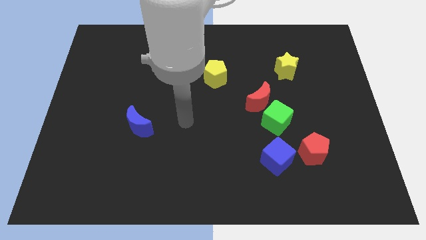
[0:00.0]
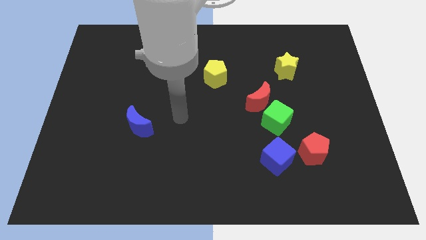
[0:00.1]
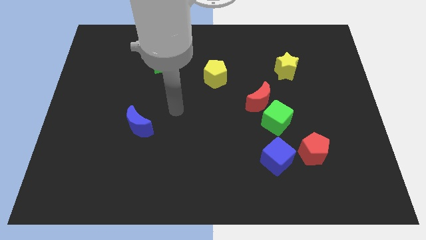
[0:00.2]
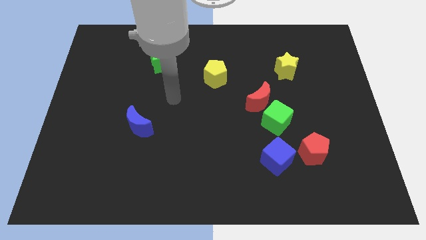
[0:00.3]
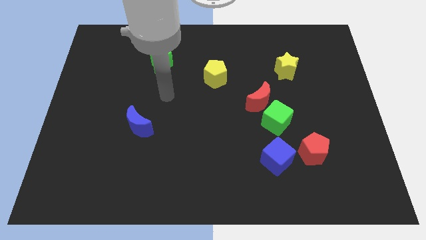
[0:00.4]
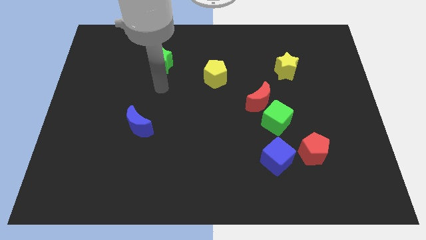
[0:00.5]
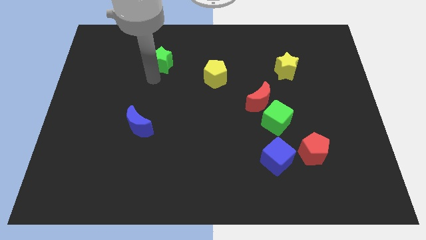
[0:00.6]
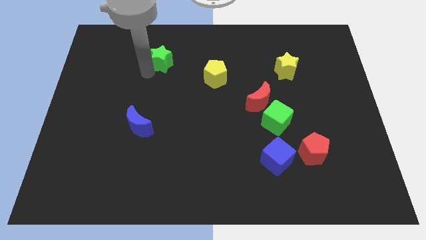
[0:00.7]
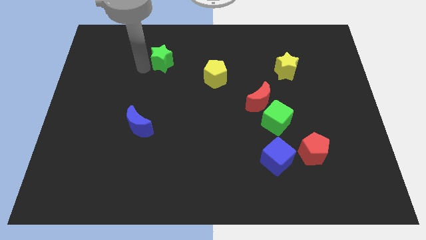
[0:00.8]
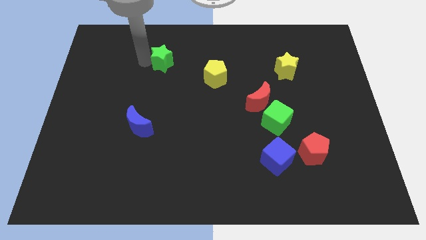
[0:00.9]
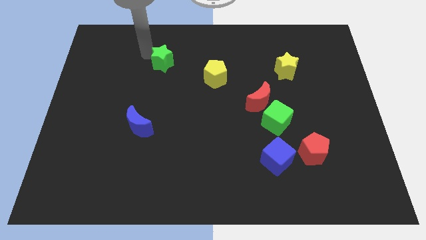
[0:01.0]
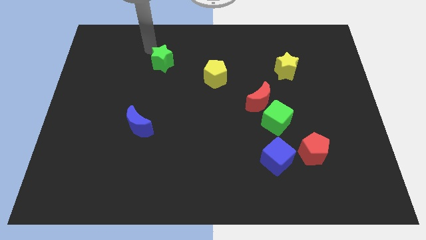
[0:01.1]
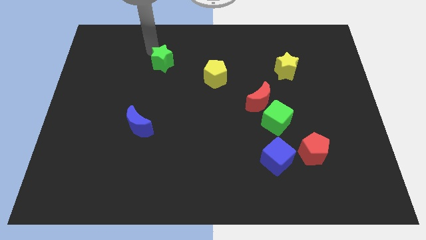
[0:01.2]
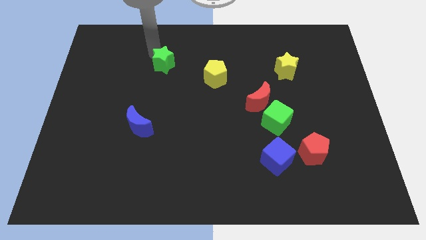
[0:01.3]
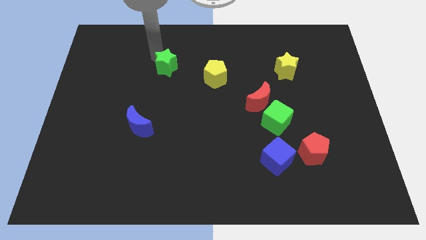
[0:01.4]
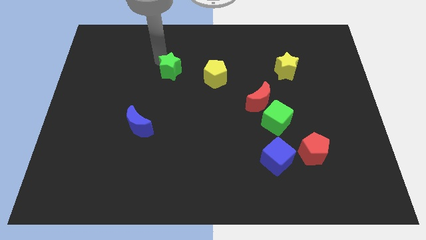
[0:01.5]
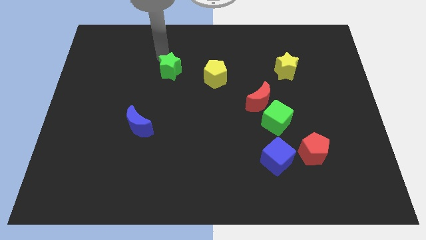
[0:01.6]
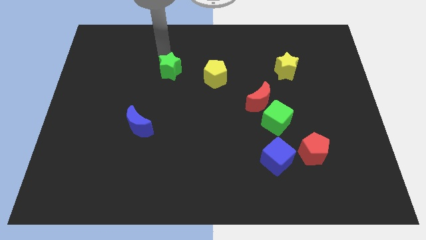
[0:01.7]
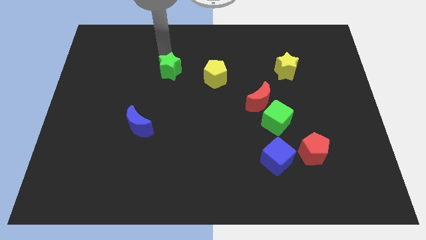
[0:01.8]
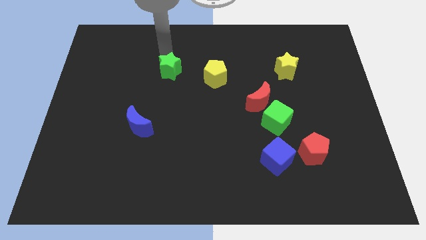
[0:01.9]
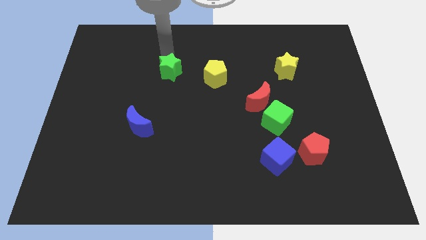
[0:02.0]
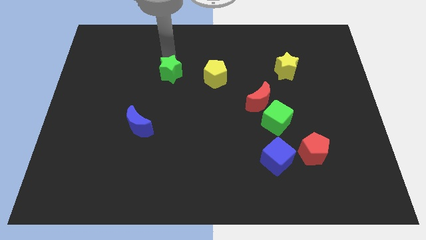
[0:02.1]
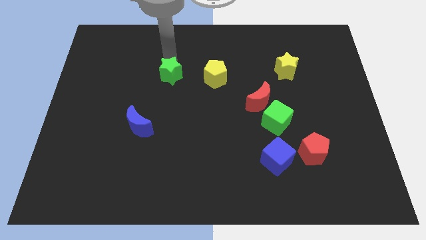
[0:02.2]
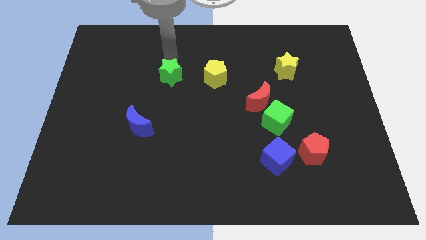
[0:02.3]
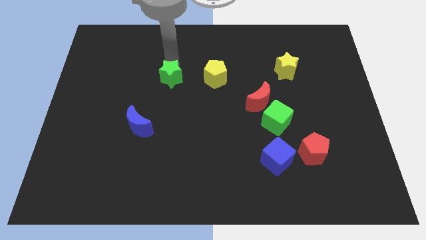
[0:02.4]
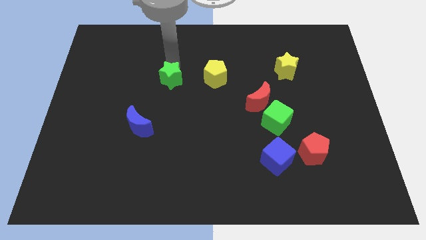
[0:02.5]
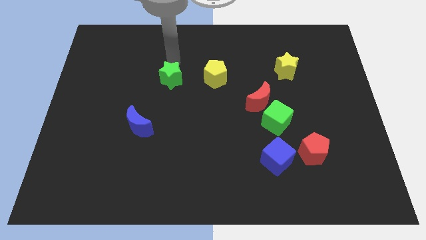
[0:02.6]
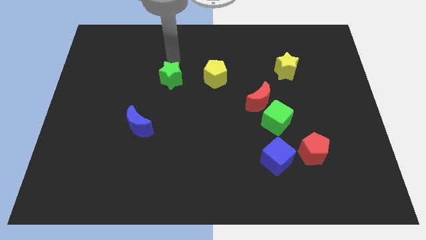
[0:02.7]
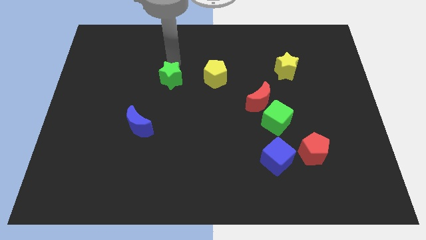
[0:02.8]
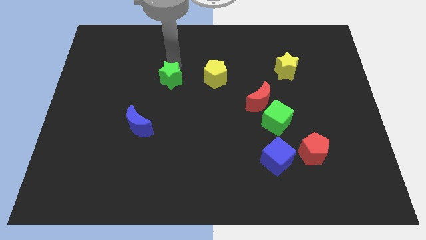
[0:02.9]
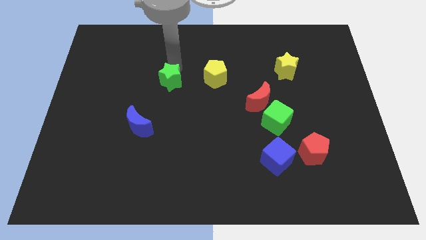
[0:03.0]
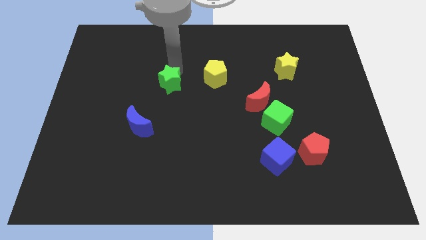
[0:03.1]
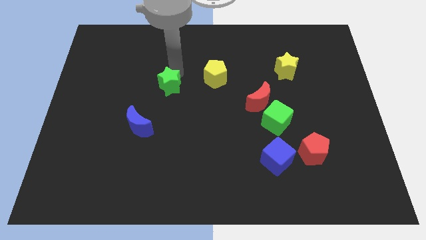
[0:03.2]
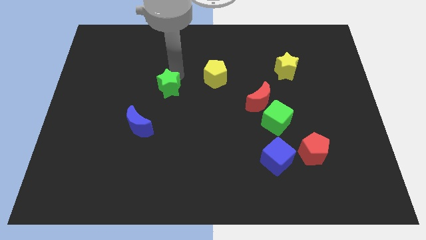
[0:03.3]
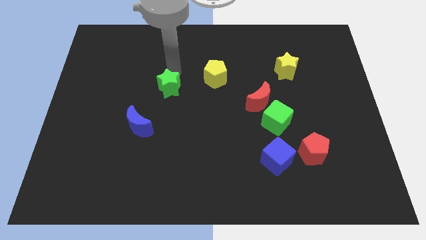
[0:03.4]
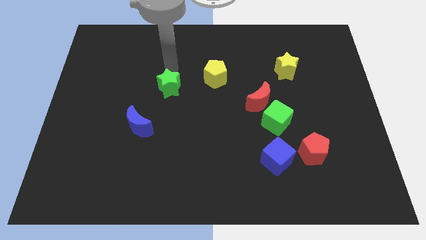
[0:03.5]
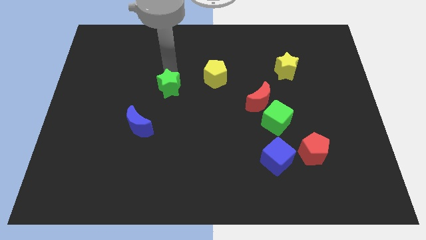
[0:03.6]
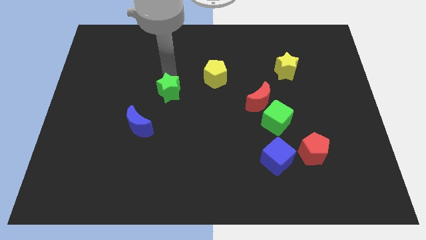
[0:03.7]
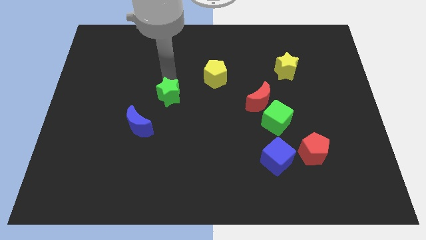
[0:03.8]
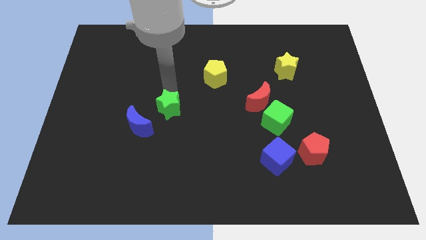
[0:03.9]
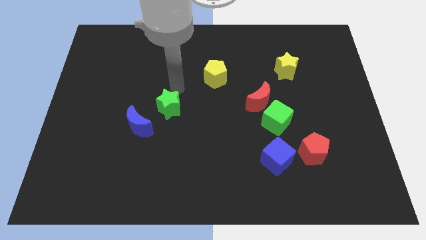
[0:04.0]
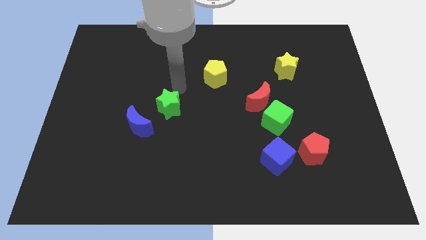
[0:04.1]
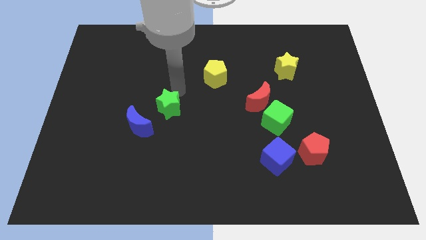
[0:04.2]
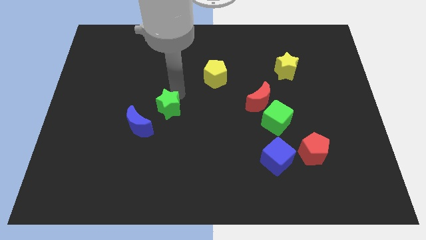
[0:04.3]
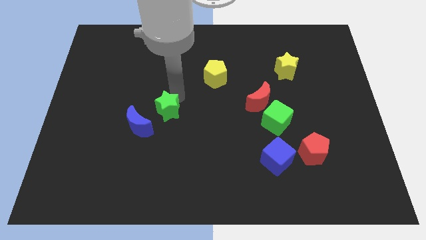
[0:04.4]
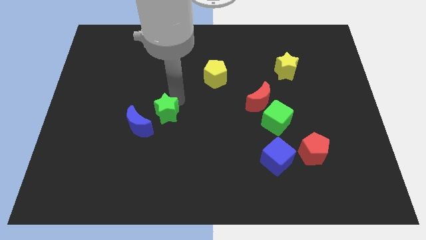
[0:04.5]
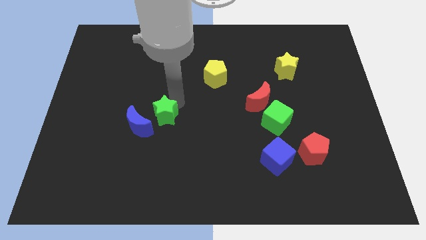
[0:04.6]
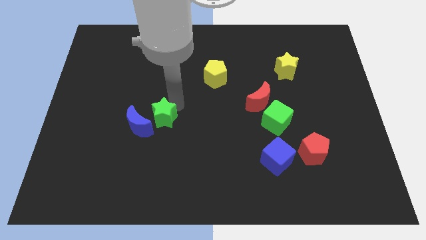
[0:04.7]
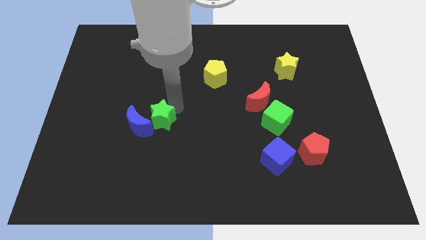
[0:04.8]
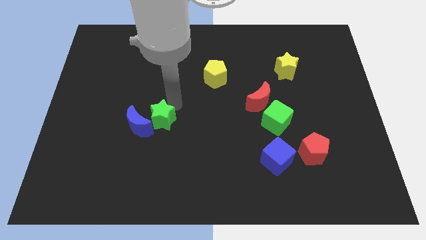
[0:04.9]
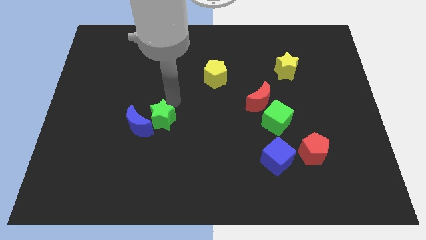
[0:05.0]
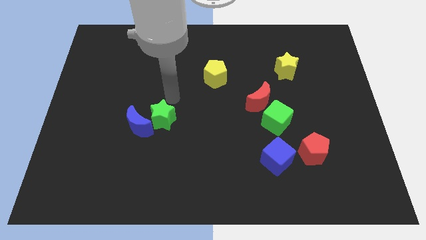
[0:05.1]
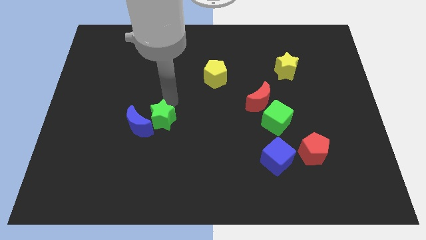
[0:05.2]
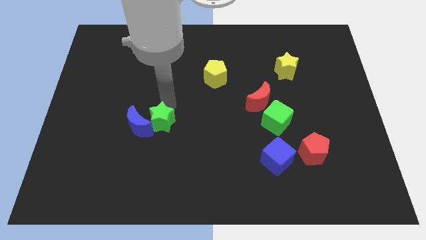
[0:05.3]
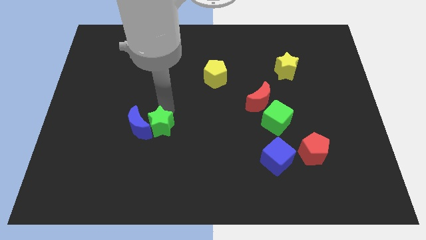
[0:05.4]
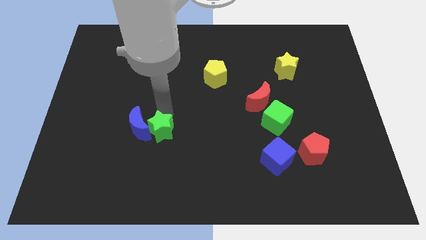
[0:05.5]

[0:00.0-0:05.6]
move the green star down

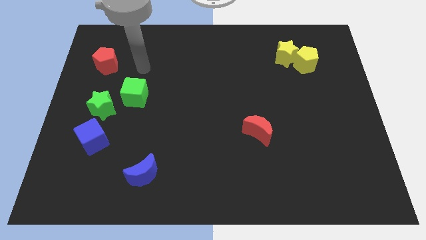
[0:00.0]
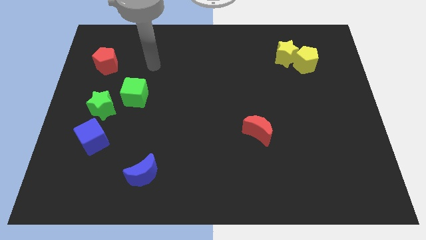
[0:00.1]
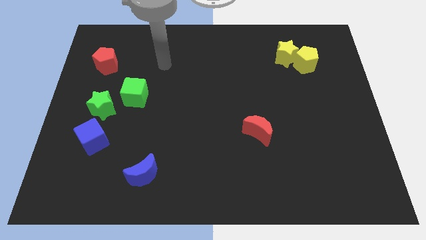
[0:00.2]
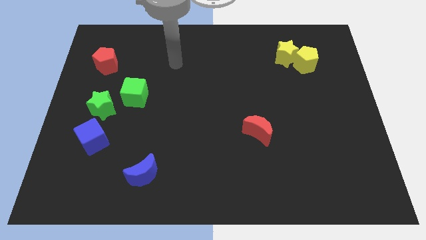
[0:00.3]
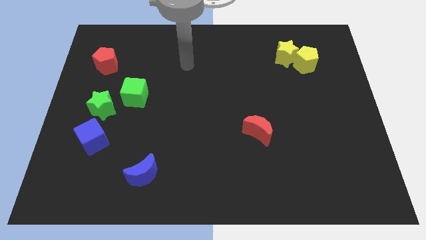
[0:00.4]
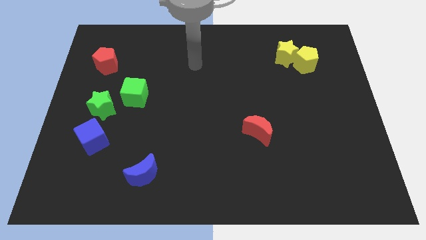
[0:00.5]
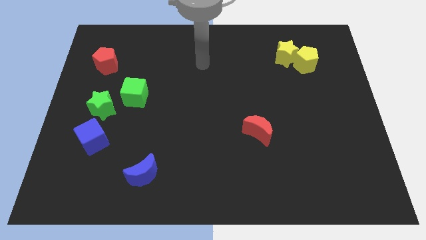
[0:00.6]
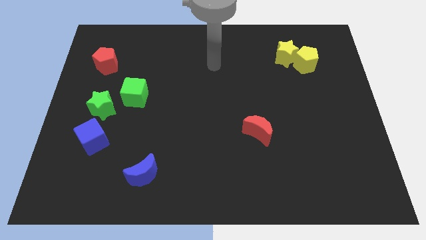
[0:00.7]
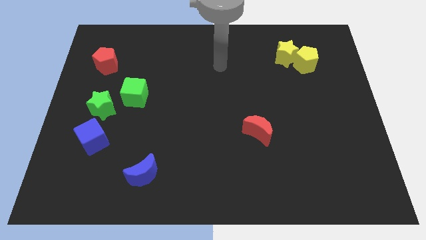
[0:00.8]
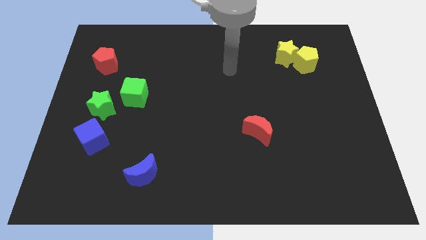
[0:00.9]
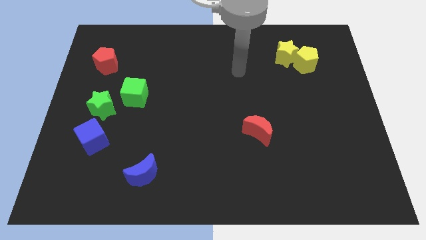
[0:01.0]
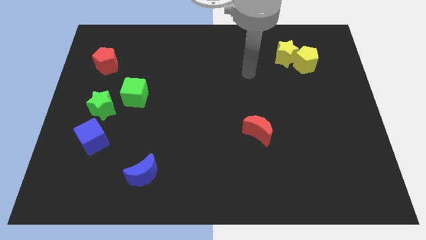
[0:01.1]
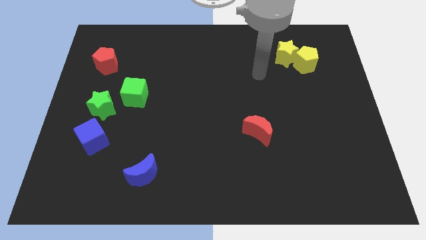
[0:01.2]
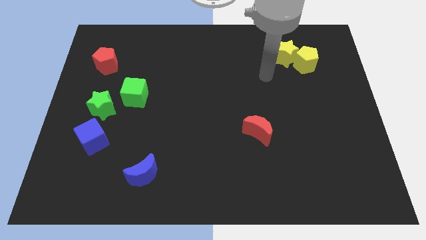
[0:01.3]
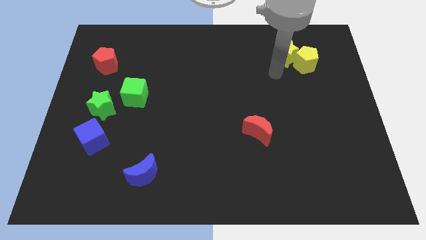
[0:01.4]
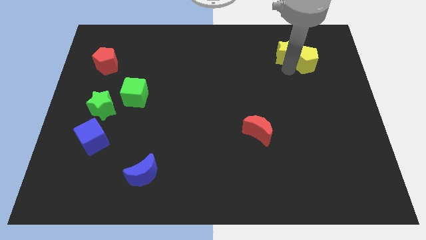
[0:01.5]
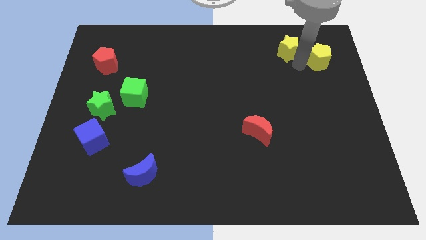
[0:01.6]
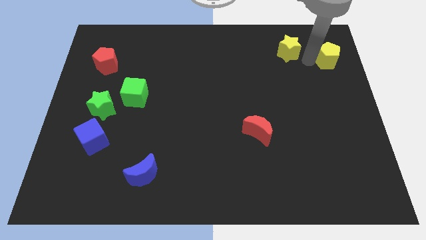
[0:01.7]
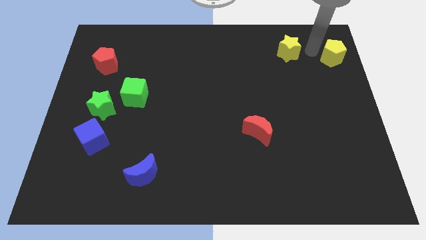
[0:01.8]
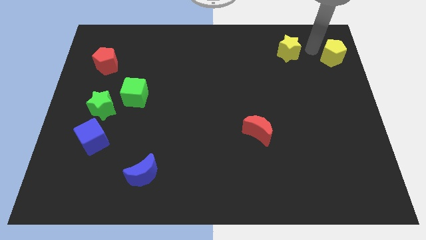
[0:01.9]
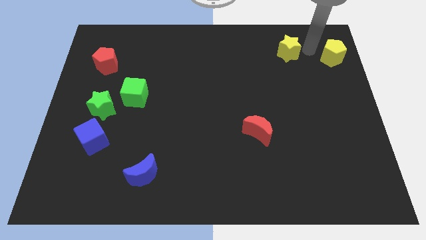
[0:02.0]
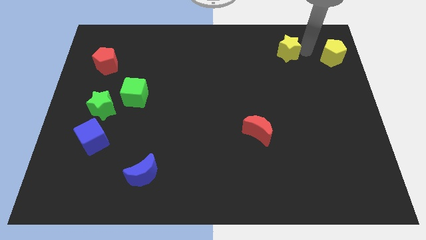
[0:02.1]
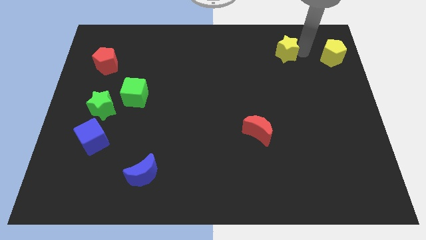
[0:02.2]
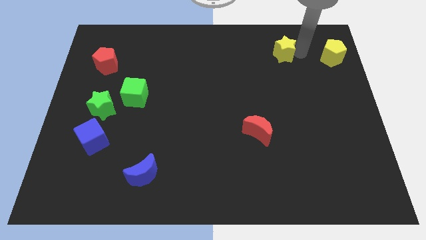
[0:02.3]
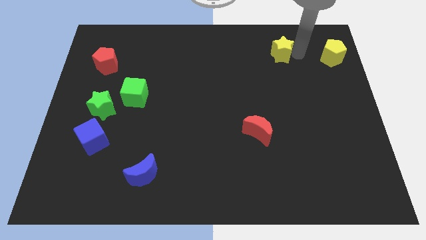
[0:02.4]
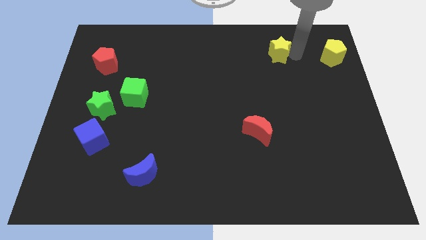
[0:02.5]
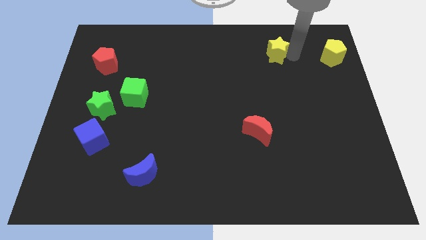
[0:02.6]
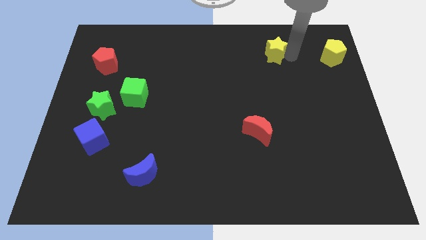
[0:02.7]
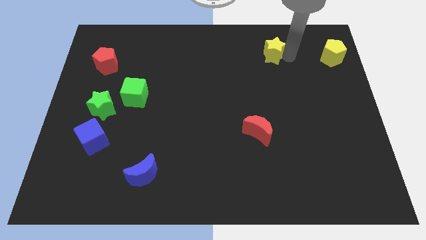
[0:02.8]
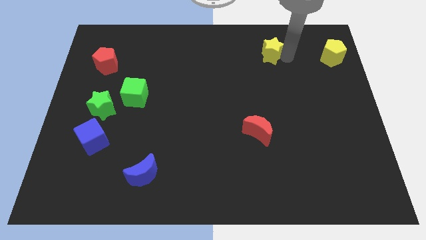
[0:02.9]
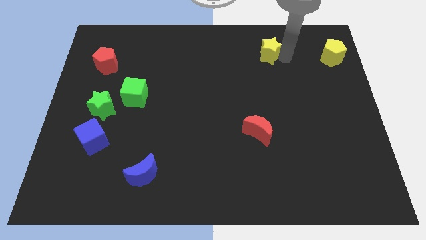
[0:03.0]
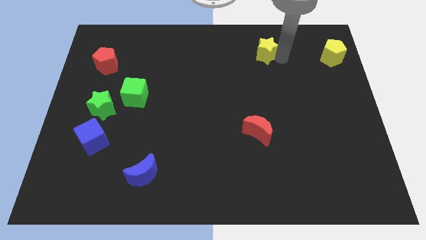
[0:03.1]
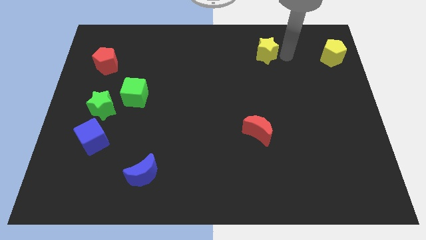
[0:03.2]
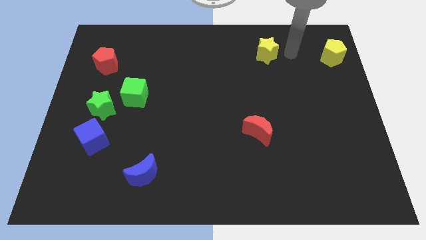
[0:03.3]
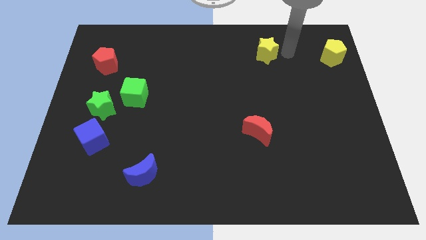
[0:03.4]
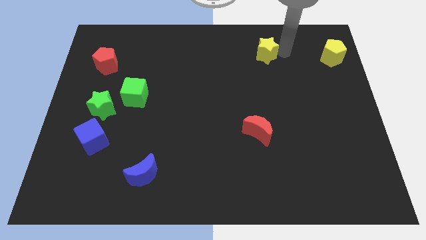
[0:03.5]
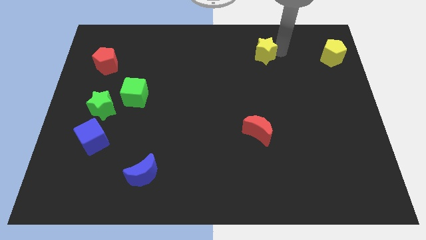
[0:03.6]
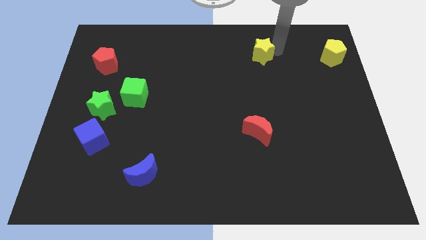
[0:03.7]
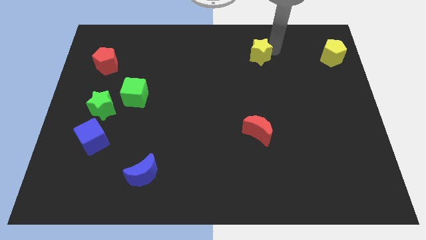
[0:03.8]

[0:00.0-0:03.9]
slide the yellow star left a little
